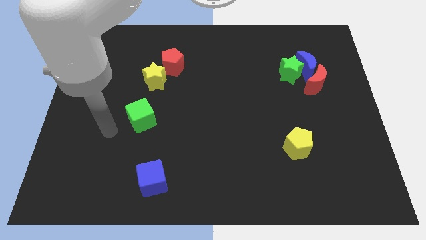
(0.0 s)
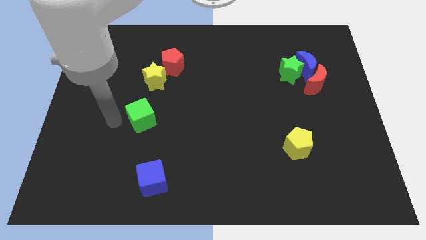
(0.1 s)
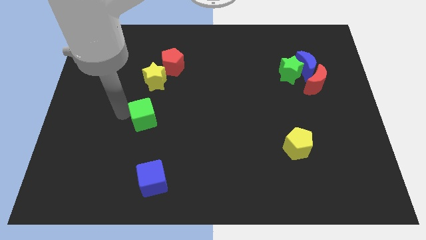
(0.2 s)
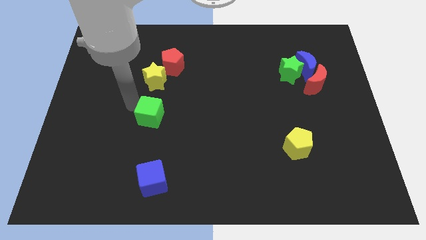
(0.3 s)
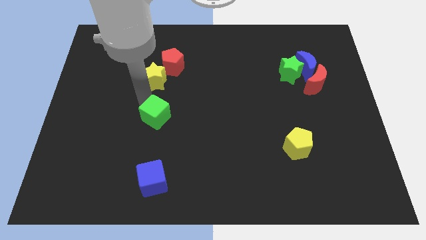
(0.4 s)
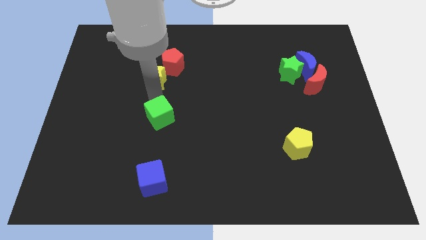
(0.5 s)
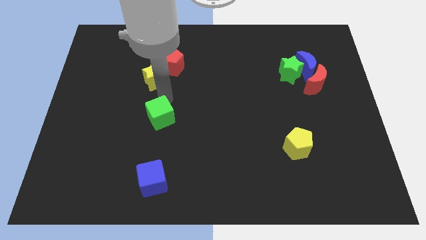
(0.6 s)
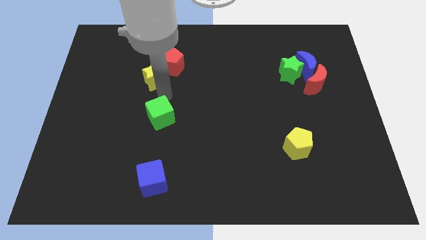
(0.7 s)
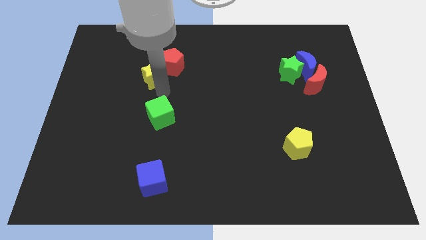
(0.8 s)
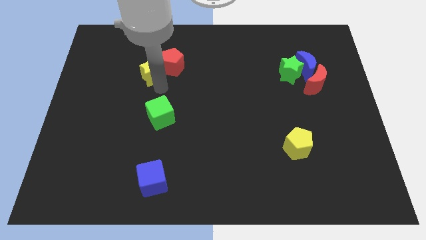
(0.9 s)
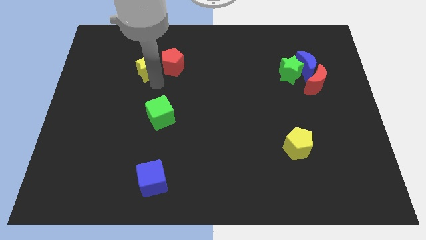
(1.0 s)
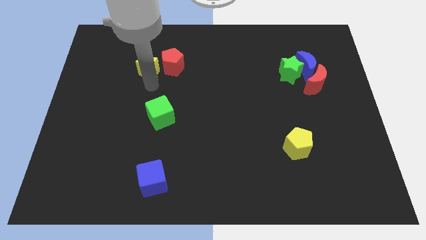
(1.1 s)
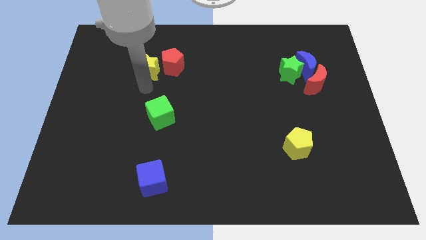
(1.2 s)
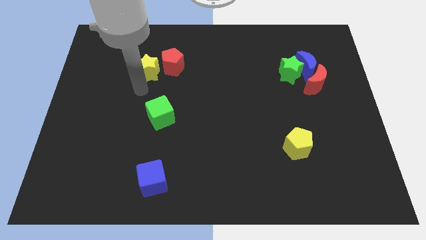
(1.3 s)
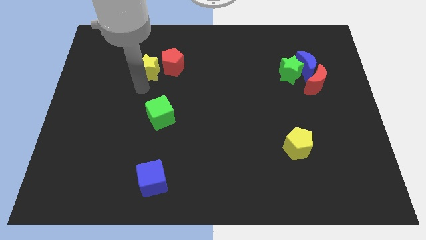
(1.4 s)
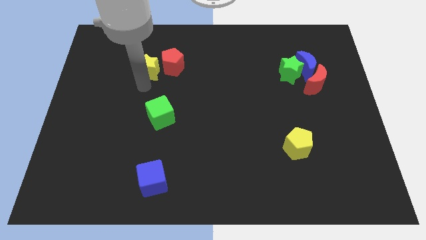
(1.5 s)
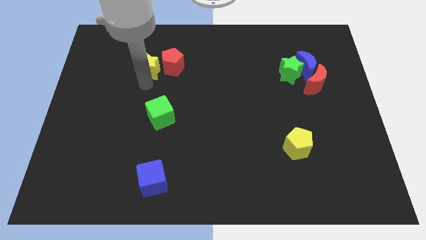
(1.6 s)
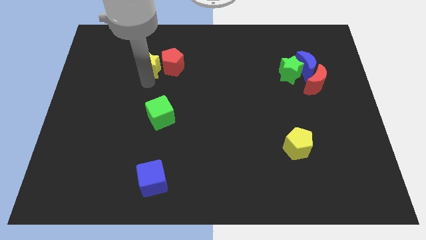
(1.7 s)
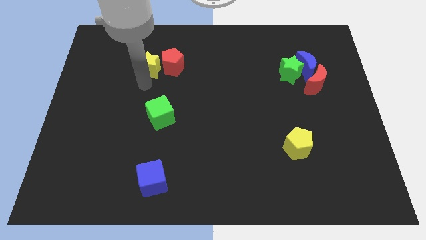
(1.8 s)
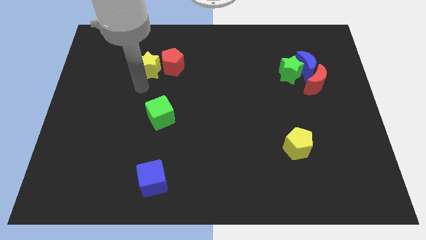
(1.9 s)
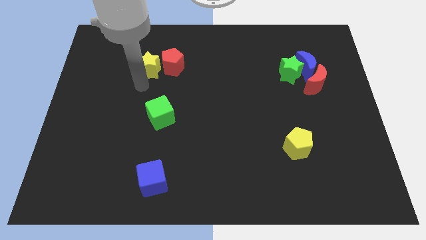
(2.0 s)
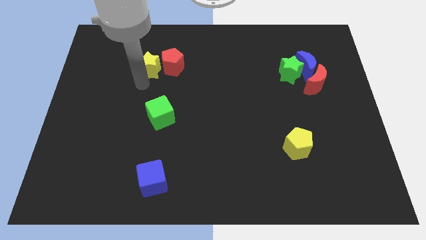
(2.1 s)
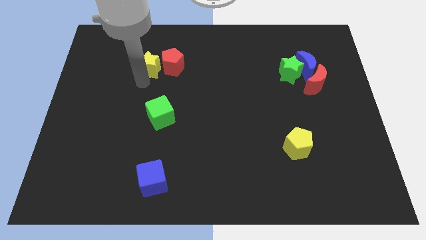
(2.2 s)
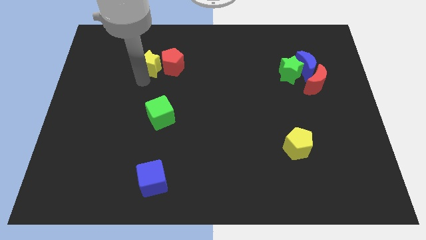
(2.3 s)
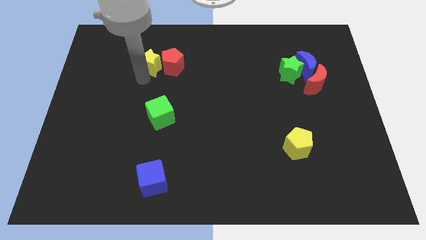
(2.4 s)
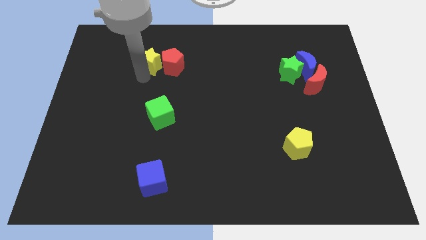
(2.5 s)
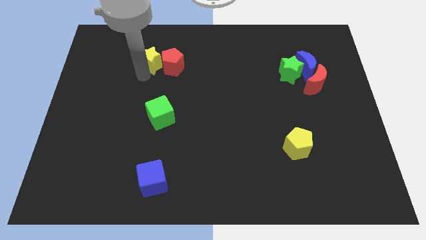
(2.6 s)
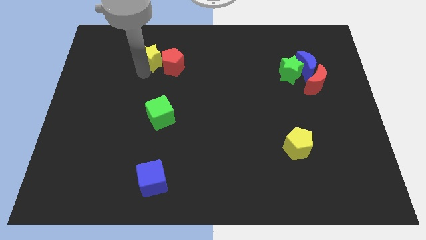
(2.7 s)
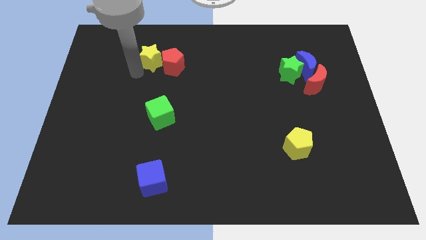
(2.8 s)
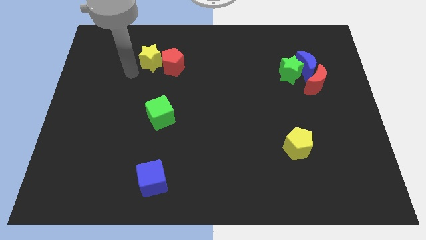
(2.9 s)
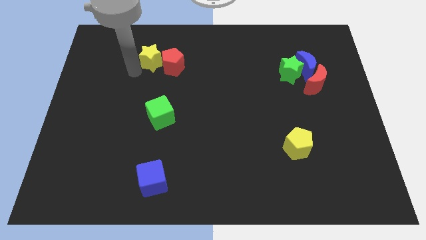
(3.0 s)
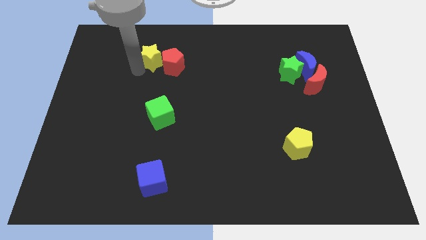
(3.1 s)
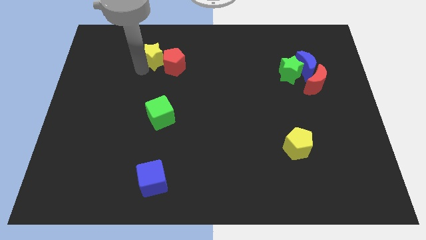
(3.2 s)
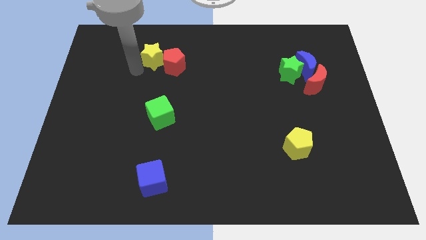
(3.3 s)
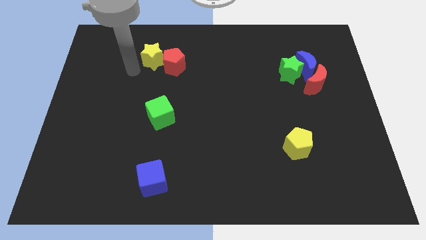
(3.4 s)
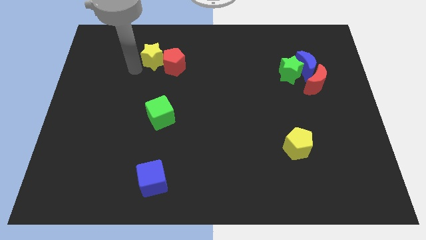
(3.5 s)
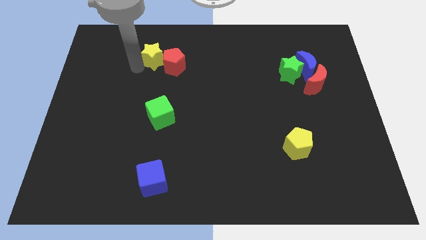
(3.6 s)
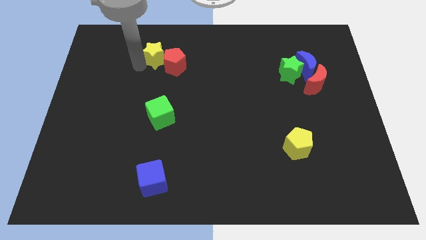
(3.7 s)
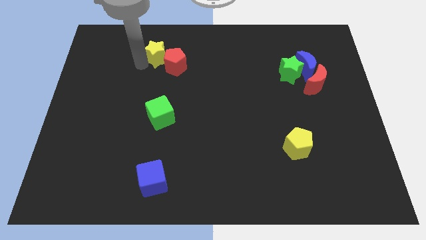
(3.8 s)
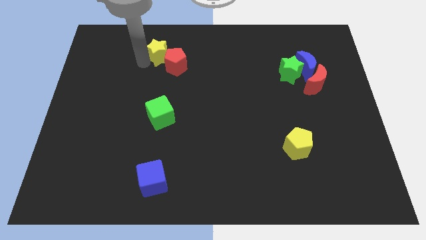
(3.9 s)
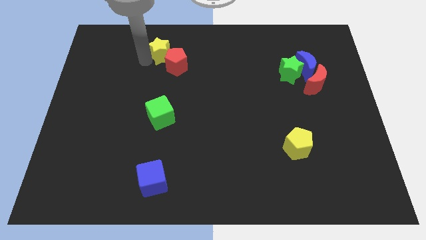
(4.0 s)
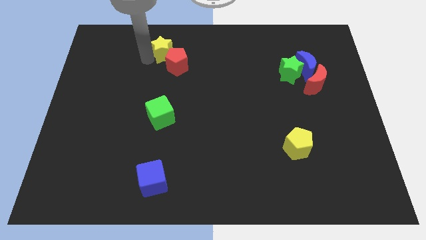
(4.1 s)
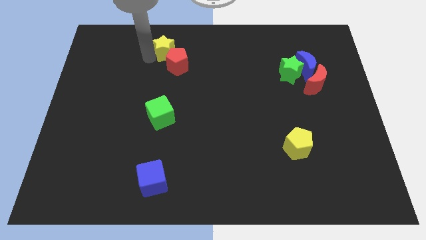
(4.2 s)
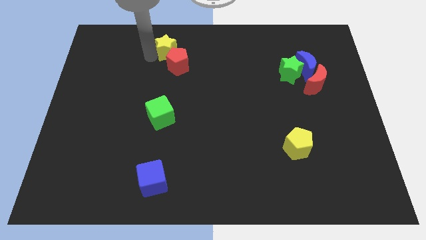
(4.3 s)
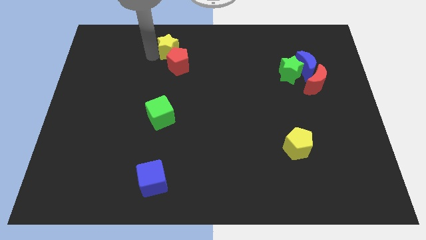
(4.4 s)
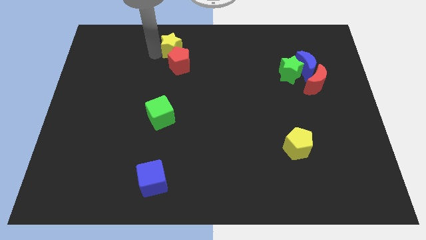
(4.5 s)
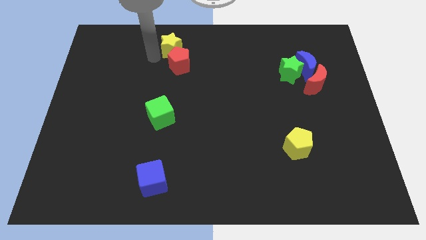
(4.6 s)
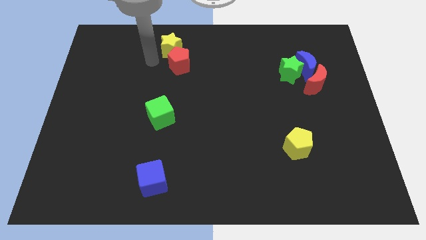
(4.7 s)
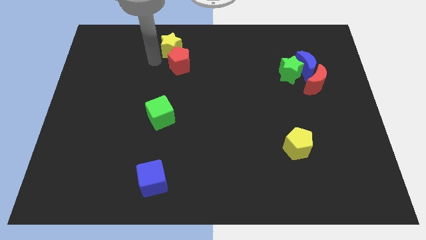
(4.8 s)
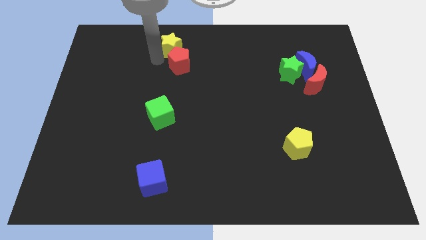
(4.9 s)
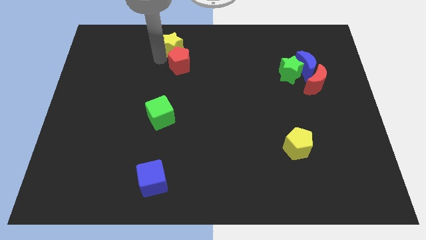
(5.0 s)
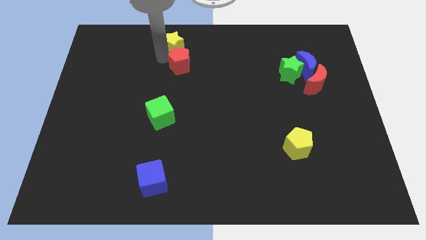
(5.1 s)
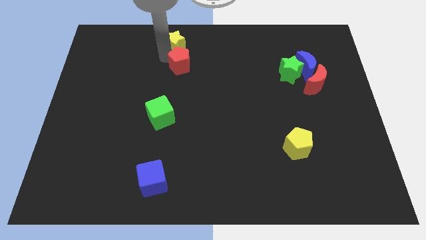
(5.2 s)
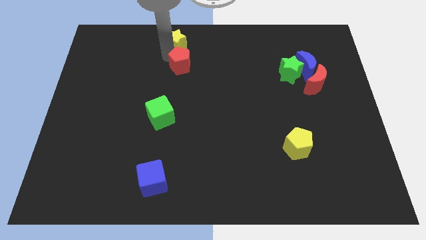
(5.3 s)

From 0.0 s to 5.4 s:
push the yellow star to the towards your base
